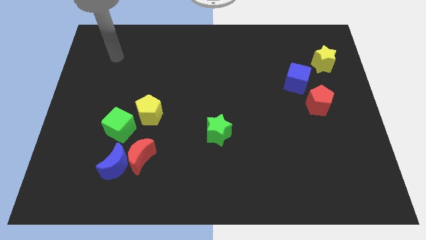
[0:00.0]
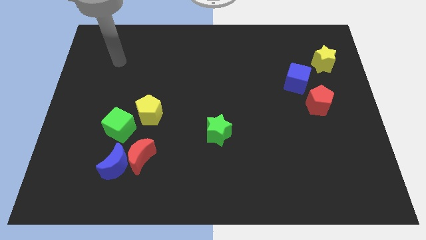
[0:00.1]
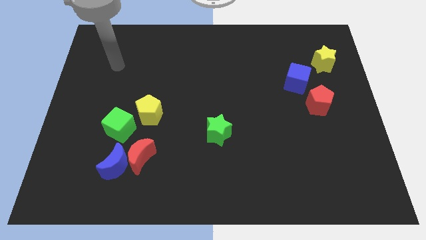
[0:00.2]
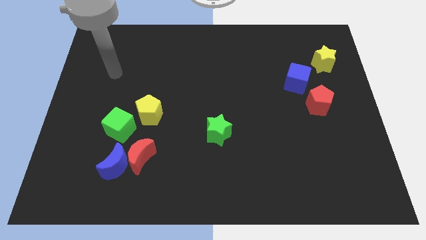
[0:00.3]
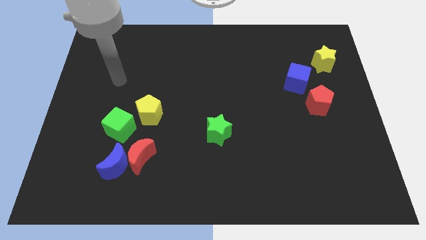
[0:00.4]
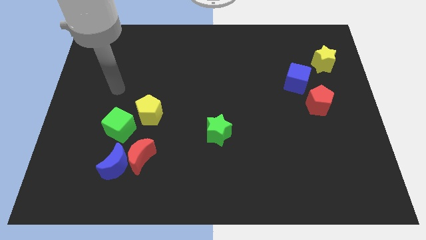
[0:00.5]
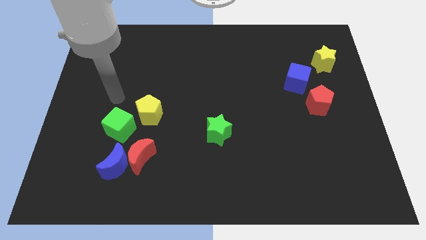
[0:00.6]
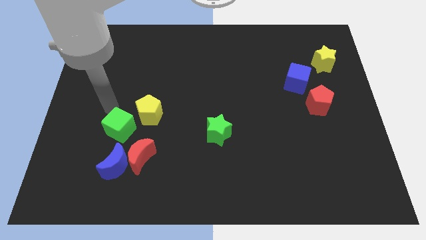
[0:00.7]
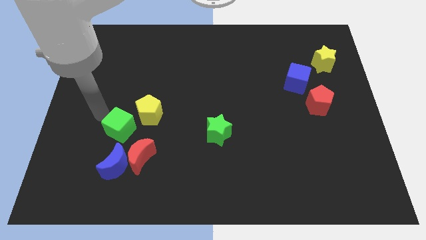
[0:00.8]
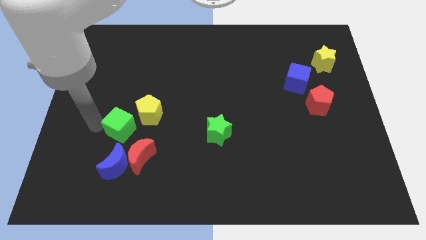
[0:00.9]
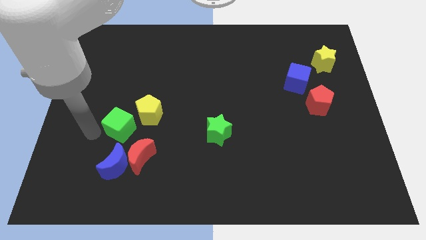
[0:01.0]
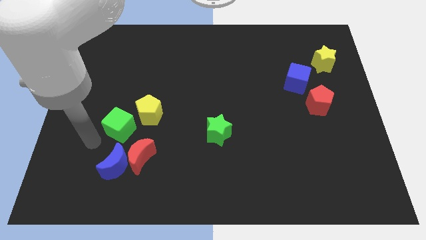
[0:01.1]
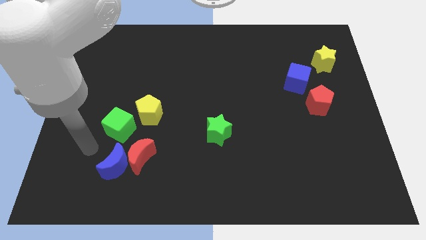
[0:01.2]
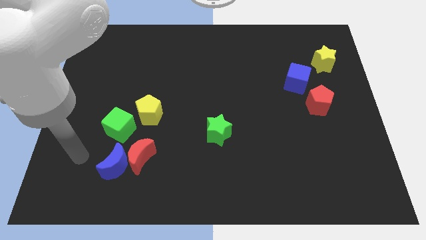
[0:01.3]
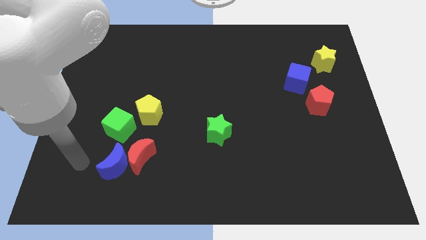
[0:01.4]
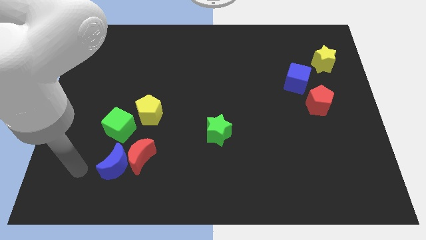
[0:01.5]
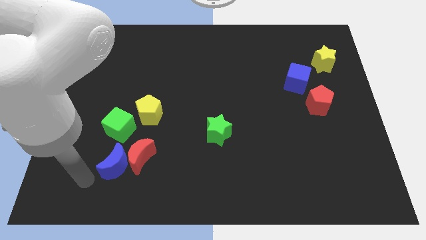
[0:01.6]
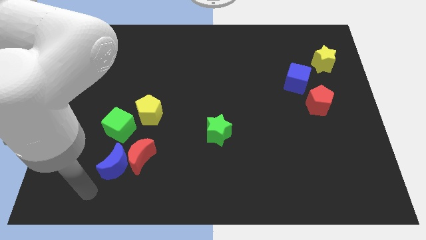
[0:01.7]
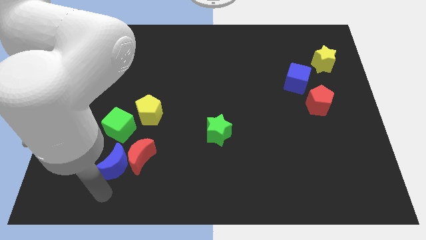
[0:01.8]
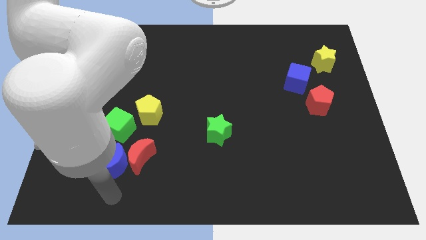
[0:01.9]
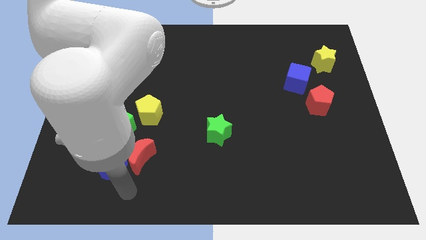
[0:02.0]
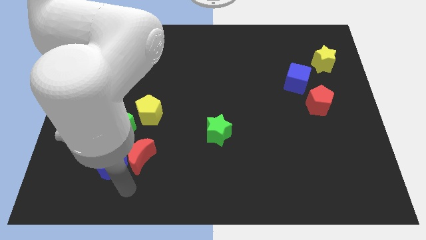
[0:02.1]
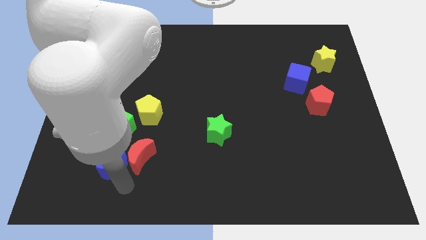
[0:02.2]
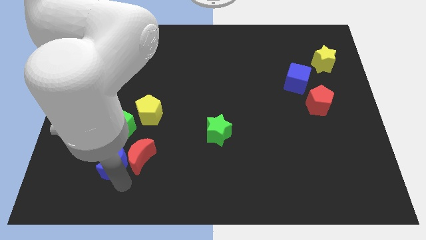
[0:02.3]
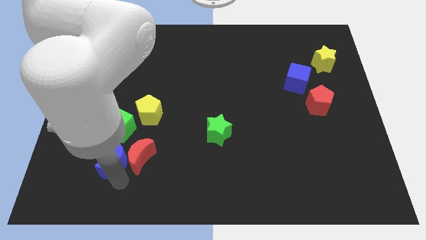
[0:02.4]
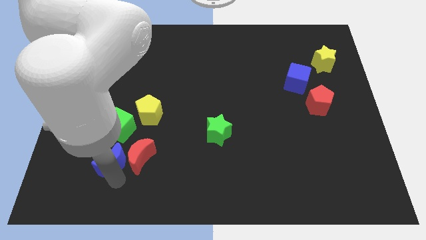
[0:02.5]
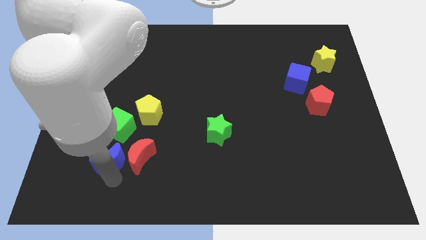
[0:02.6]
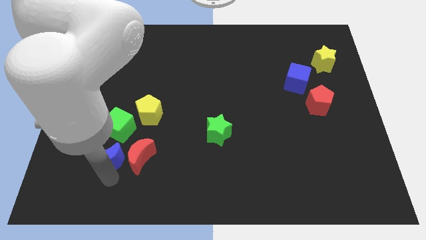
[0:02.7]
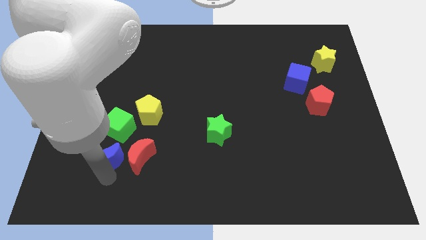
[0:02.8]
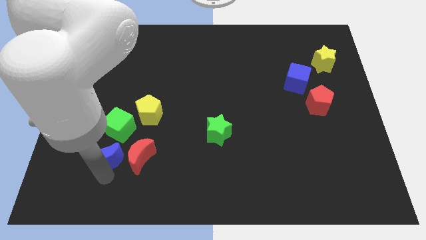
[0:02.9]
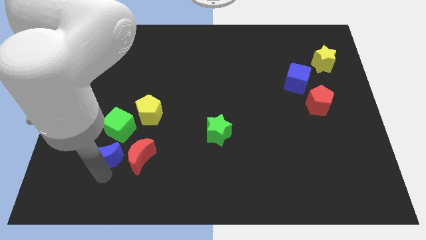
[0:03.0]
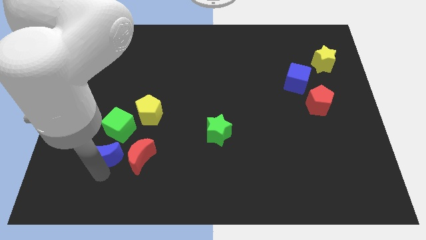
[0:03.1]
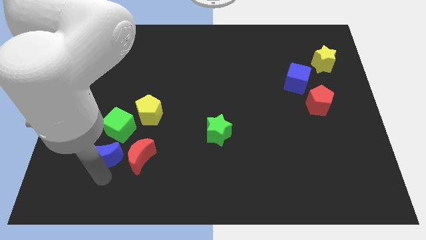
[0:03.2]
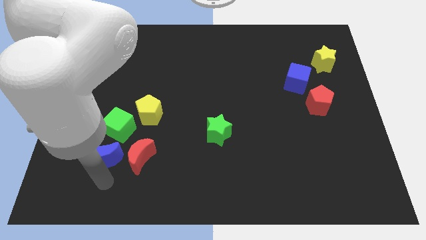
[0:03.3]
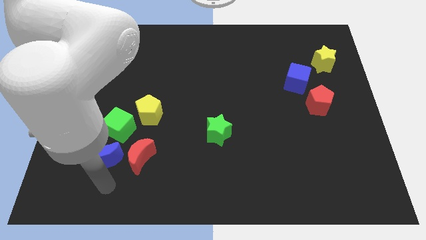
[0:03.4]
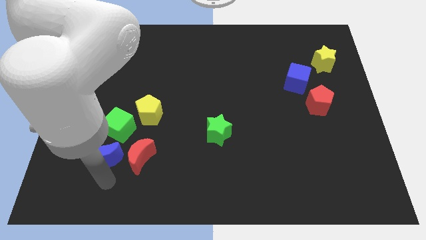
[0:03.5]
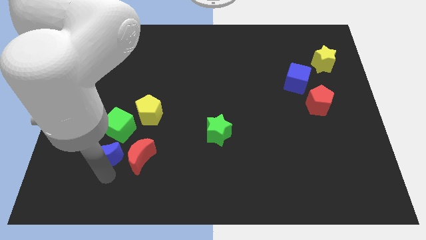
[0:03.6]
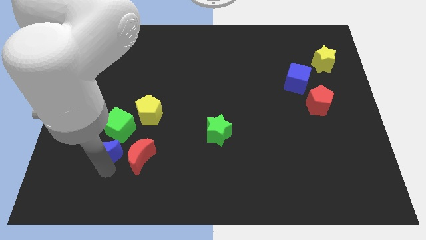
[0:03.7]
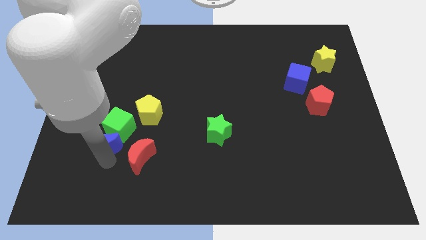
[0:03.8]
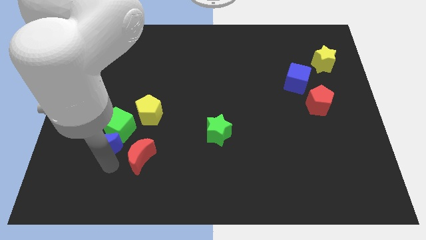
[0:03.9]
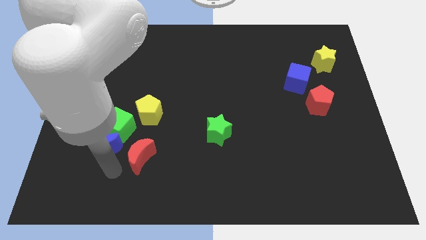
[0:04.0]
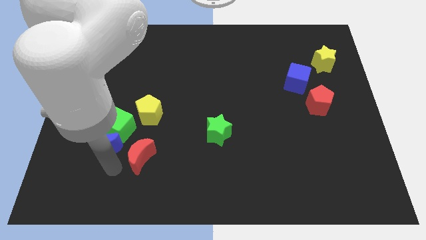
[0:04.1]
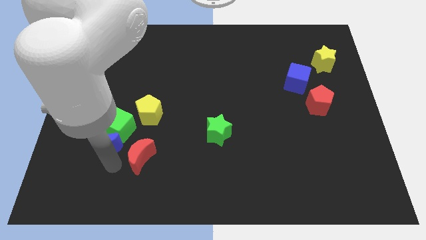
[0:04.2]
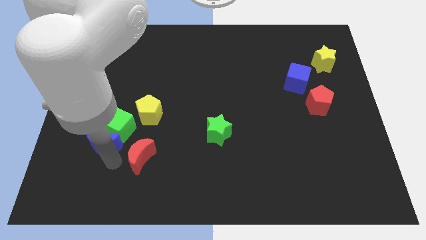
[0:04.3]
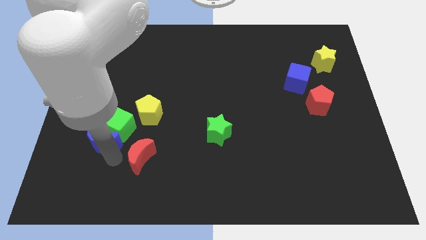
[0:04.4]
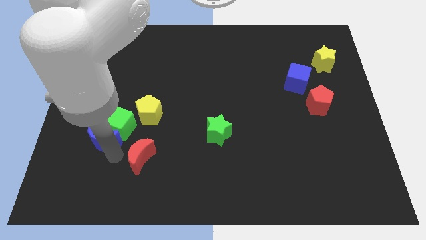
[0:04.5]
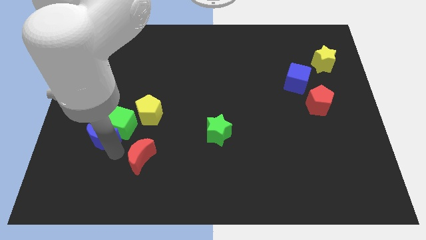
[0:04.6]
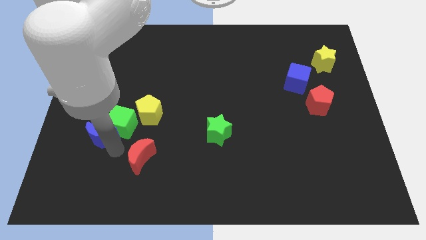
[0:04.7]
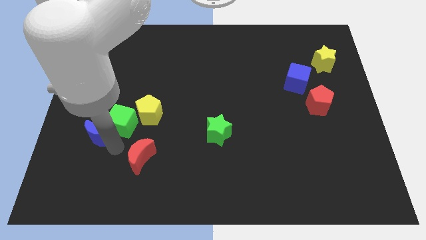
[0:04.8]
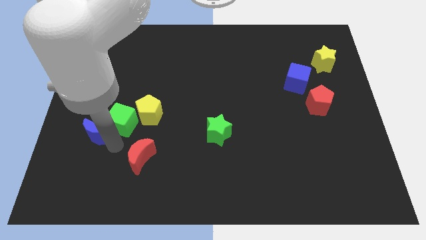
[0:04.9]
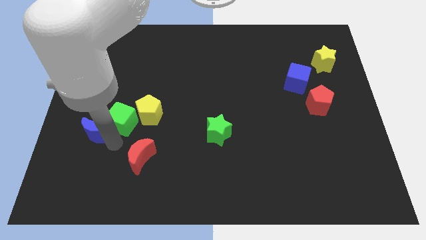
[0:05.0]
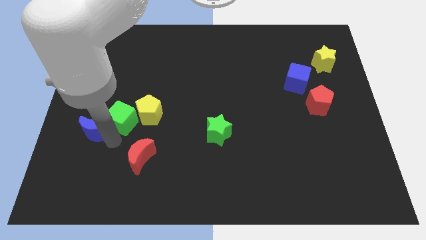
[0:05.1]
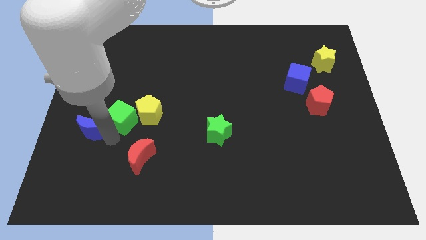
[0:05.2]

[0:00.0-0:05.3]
push the blue moon to the left of the yellow pentagon

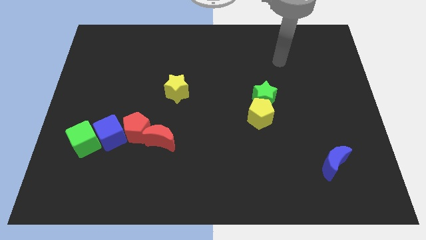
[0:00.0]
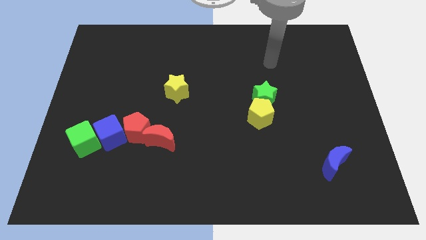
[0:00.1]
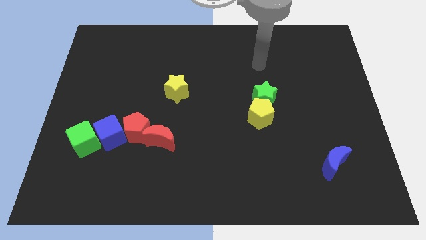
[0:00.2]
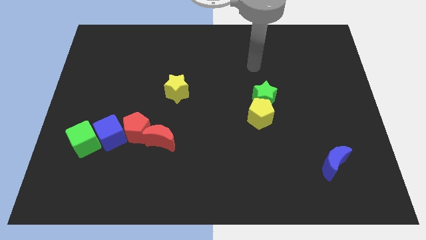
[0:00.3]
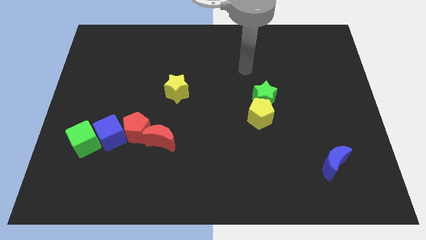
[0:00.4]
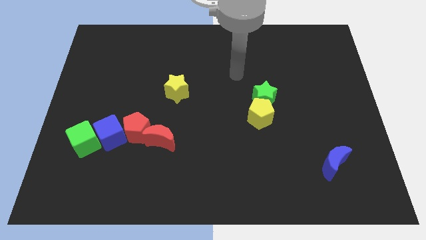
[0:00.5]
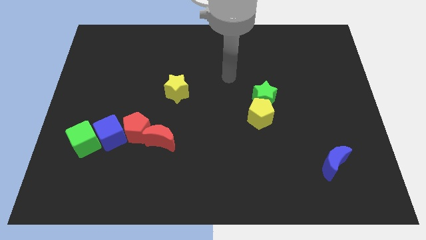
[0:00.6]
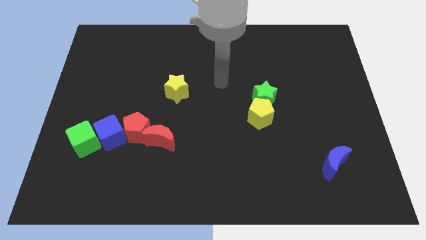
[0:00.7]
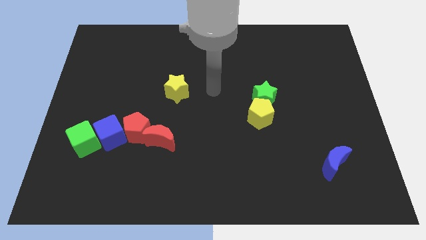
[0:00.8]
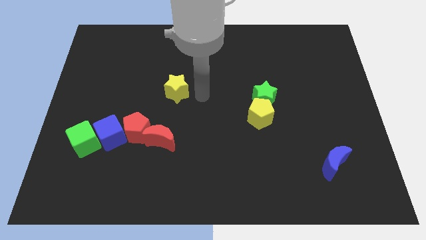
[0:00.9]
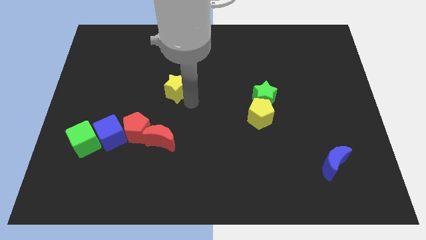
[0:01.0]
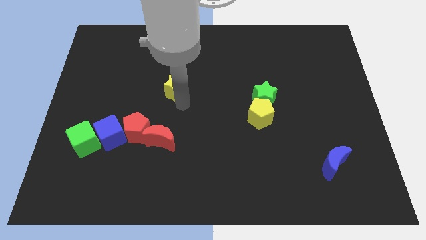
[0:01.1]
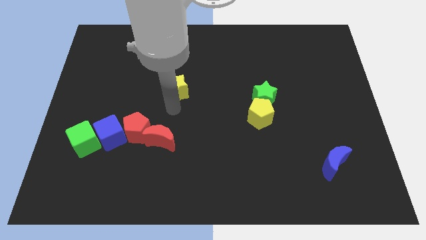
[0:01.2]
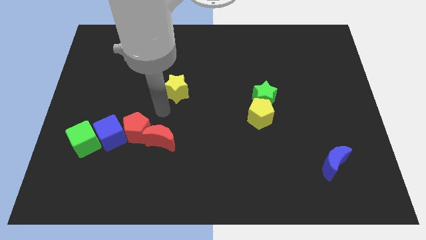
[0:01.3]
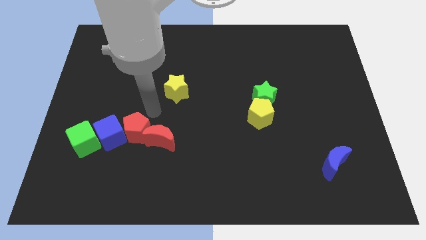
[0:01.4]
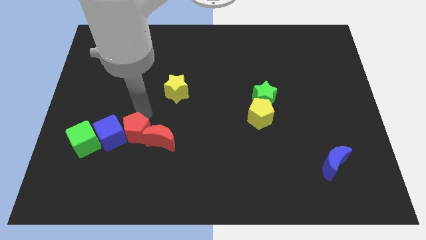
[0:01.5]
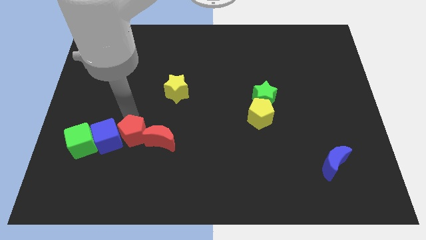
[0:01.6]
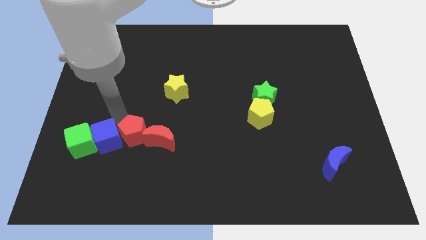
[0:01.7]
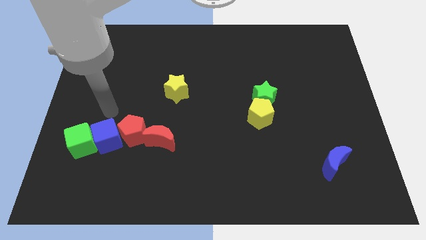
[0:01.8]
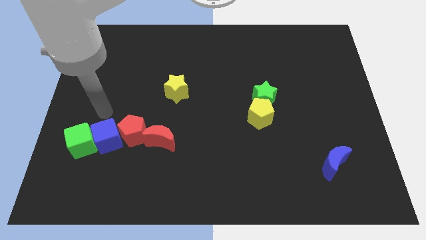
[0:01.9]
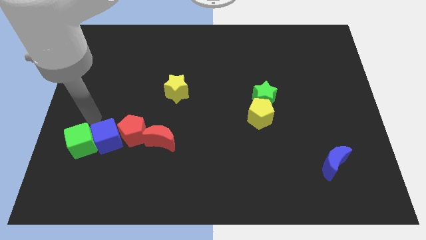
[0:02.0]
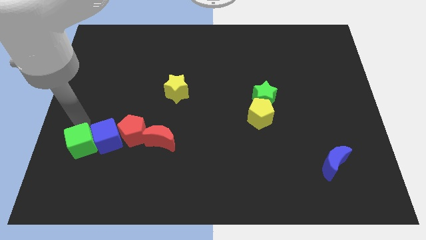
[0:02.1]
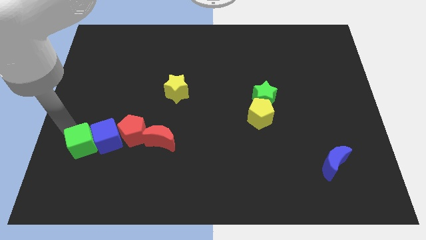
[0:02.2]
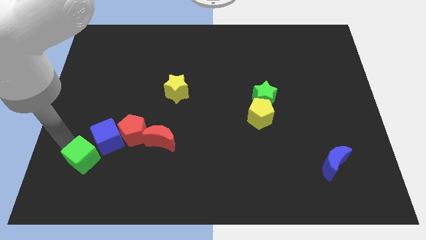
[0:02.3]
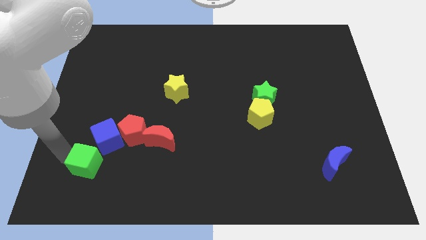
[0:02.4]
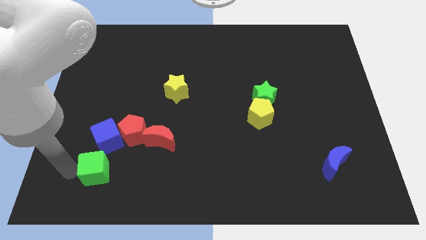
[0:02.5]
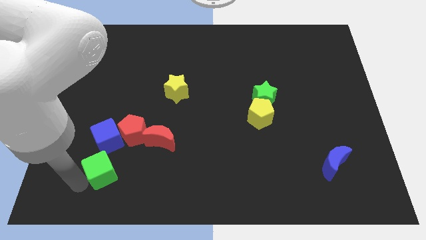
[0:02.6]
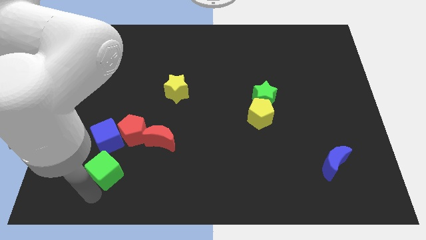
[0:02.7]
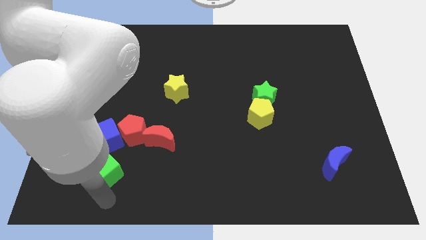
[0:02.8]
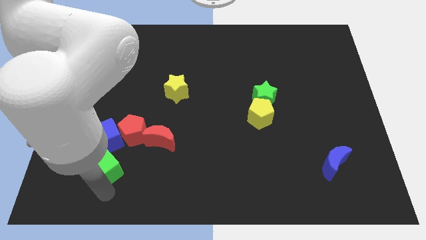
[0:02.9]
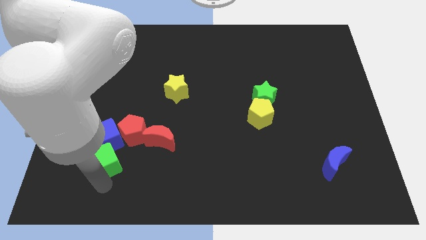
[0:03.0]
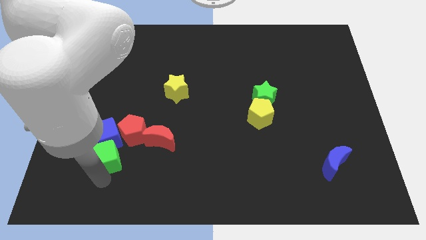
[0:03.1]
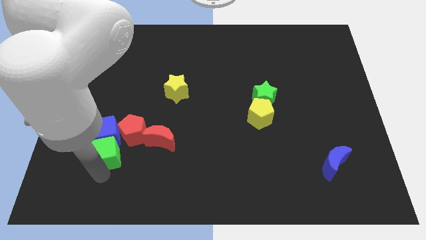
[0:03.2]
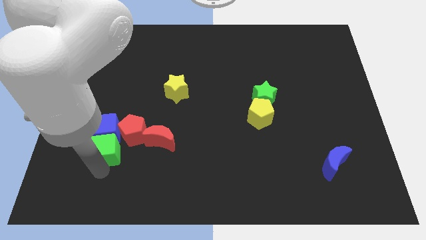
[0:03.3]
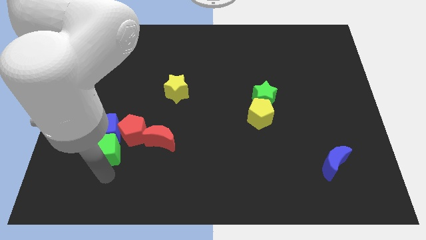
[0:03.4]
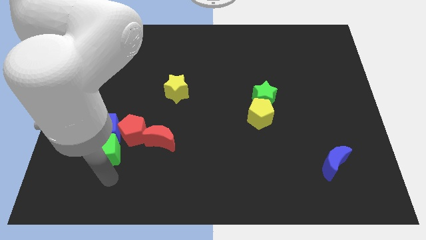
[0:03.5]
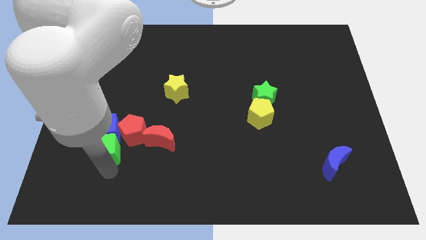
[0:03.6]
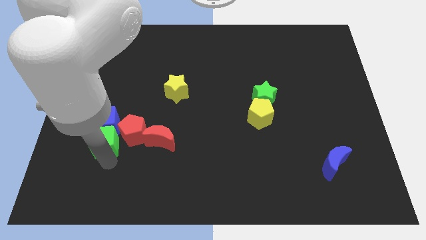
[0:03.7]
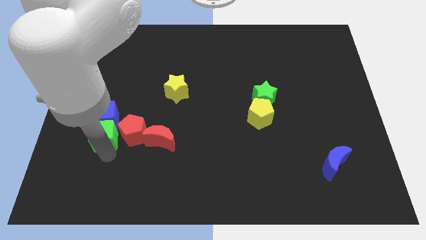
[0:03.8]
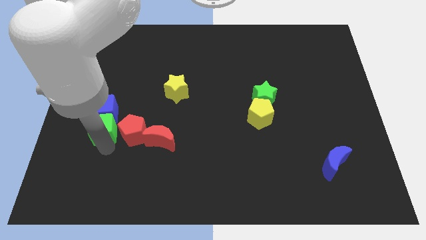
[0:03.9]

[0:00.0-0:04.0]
push the green cube diagonally up and to the left of the red pentagon
